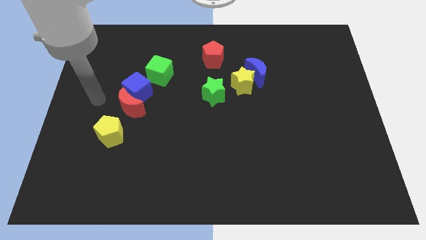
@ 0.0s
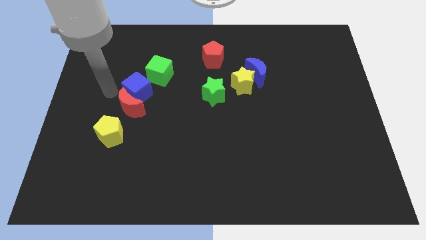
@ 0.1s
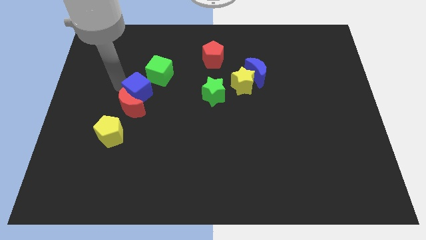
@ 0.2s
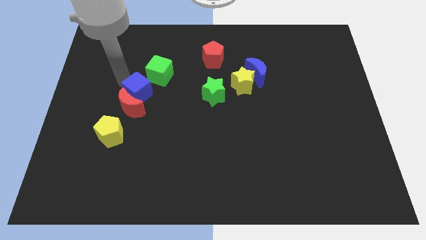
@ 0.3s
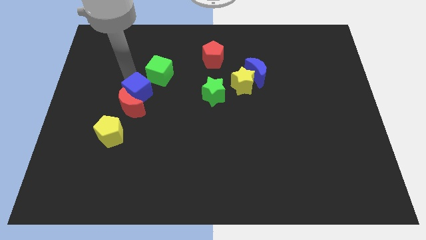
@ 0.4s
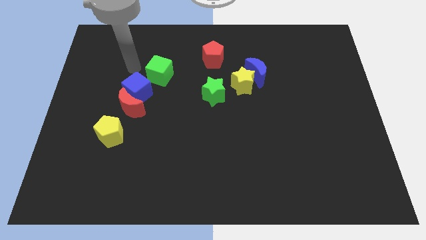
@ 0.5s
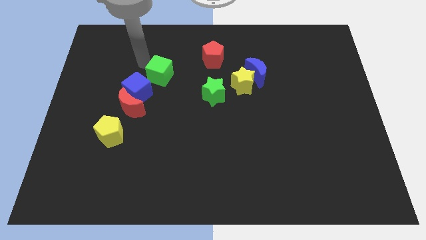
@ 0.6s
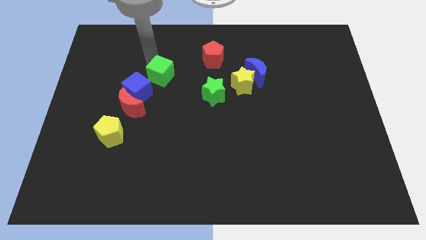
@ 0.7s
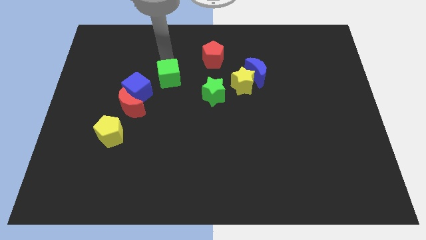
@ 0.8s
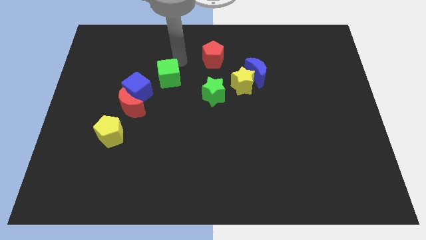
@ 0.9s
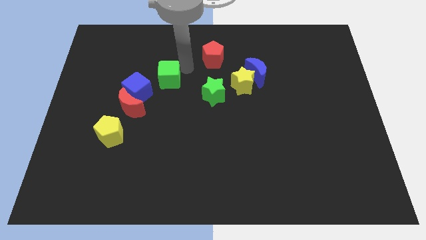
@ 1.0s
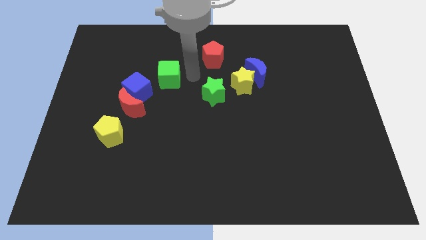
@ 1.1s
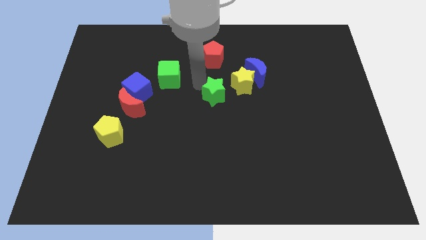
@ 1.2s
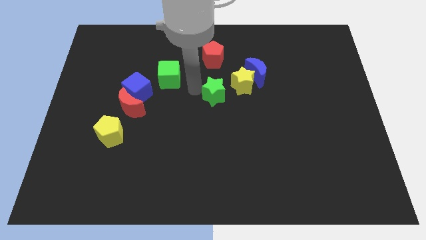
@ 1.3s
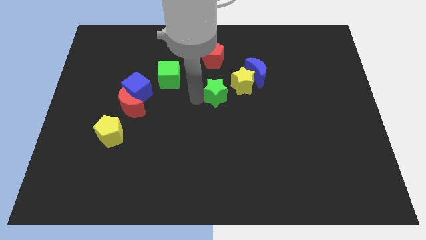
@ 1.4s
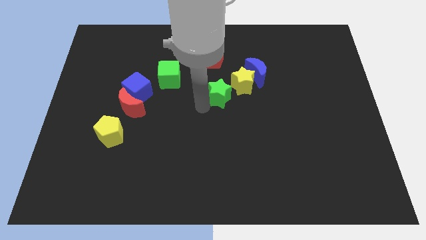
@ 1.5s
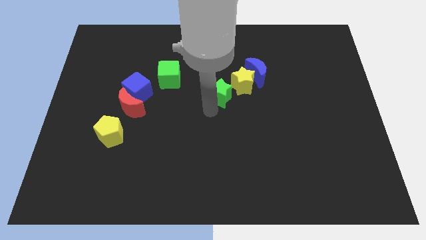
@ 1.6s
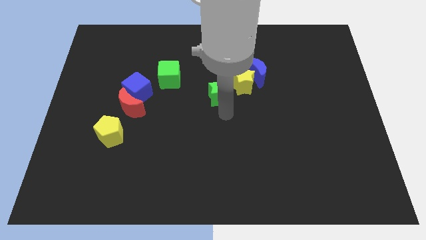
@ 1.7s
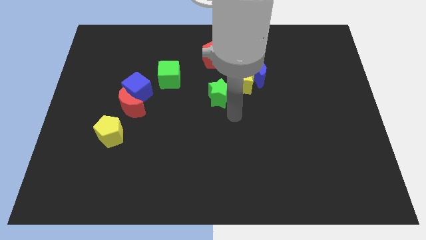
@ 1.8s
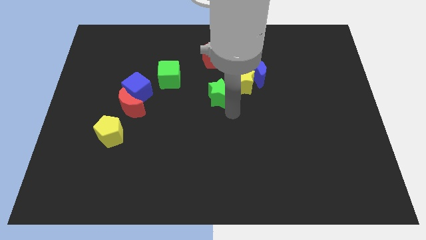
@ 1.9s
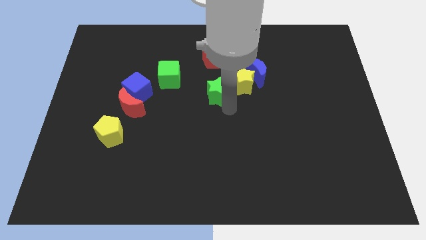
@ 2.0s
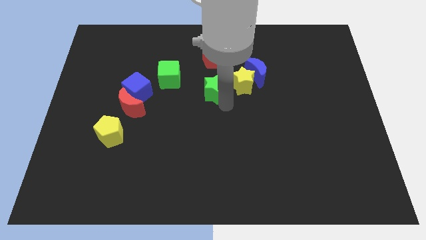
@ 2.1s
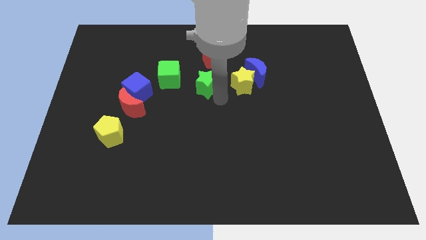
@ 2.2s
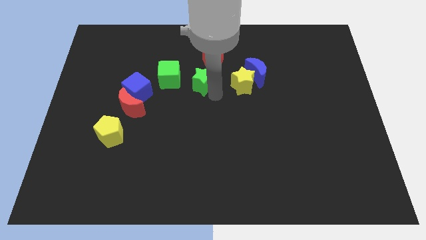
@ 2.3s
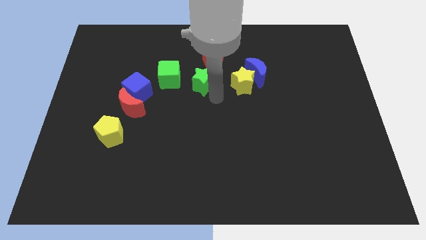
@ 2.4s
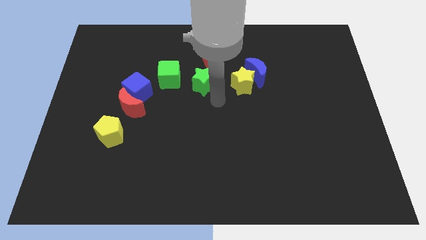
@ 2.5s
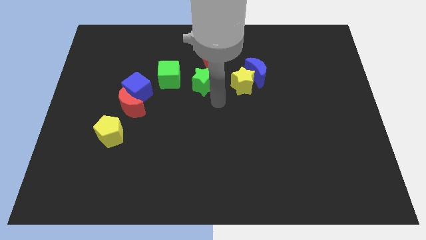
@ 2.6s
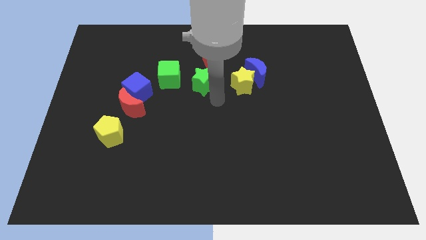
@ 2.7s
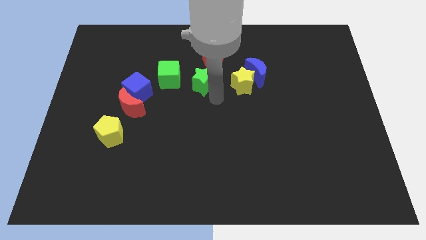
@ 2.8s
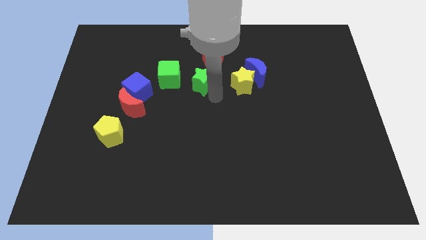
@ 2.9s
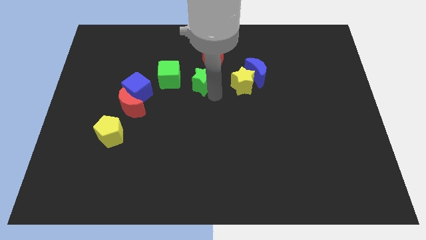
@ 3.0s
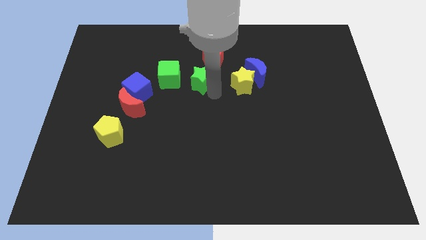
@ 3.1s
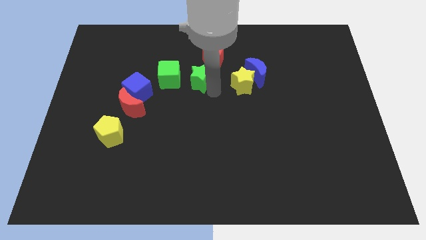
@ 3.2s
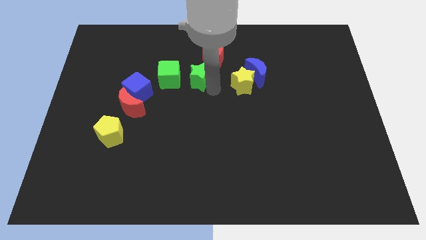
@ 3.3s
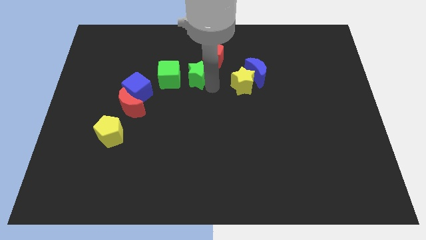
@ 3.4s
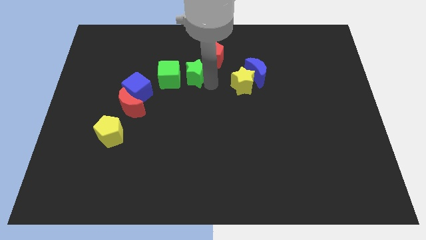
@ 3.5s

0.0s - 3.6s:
slide the green star somewhat diagonally up and left

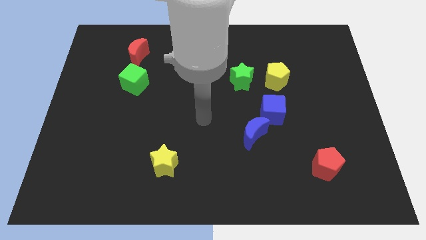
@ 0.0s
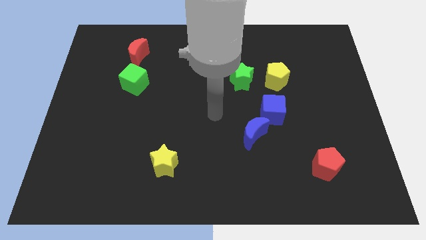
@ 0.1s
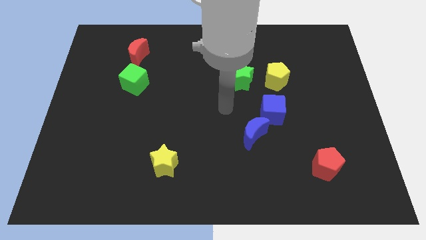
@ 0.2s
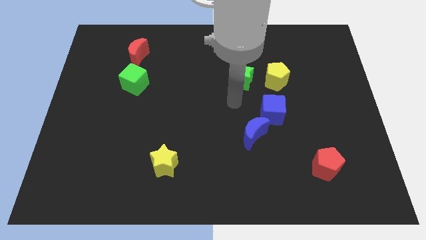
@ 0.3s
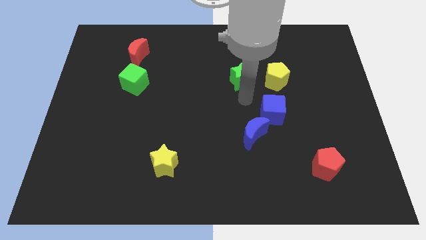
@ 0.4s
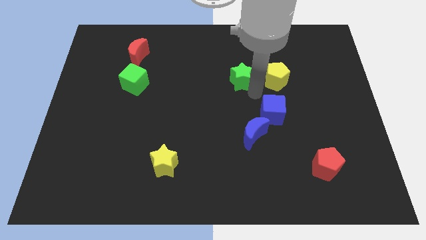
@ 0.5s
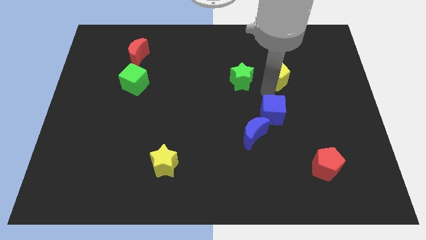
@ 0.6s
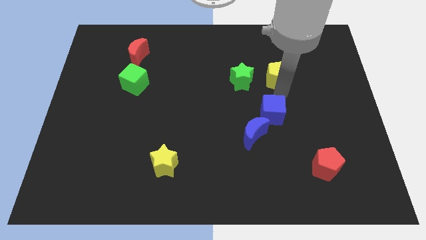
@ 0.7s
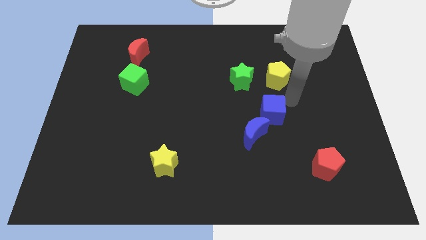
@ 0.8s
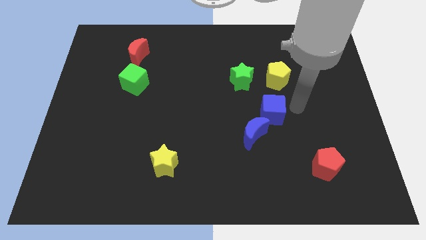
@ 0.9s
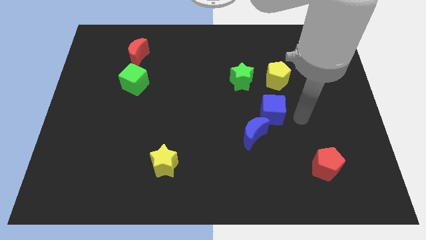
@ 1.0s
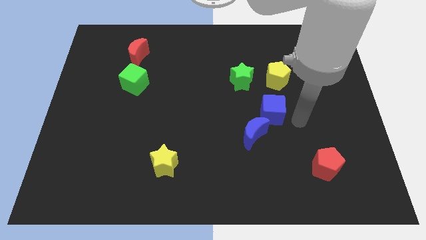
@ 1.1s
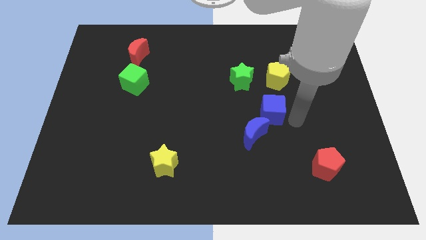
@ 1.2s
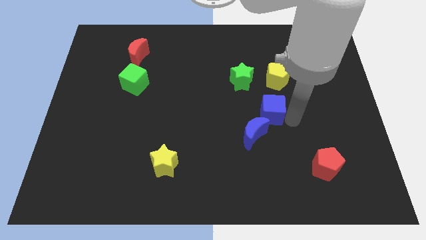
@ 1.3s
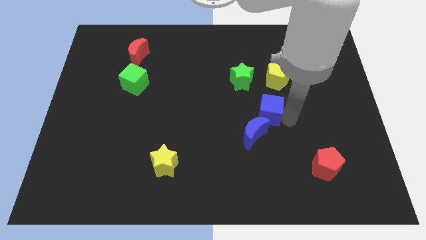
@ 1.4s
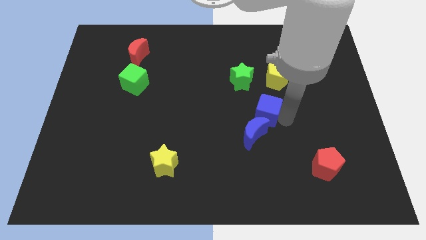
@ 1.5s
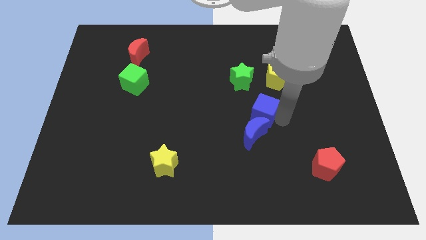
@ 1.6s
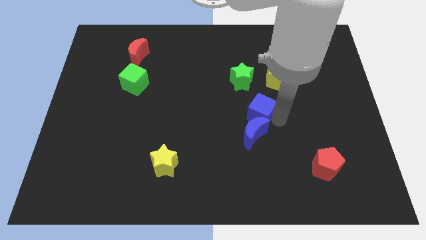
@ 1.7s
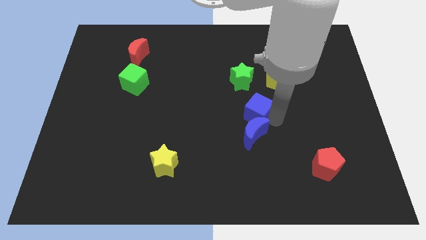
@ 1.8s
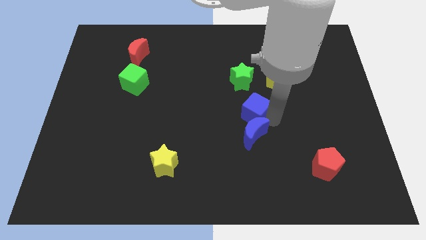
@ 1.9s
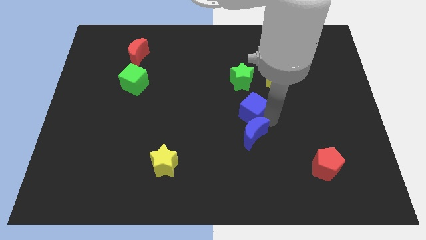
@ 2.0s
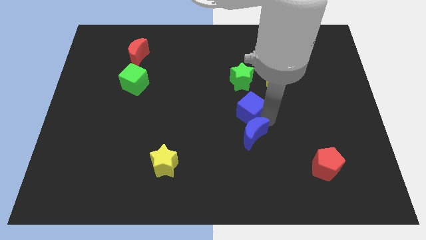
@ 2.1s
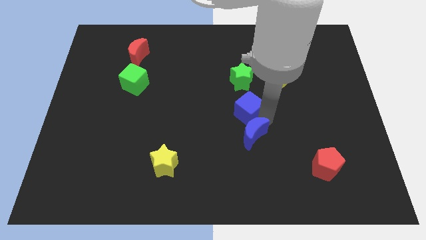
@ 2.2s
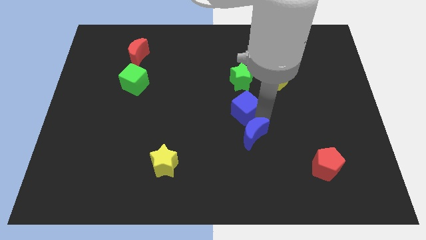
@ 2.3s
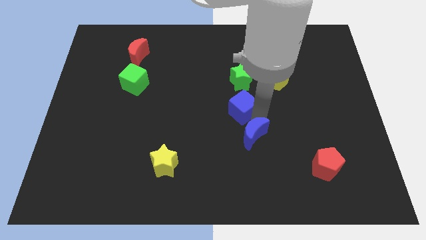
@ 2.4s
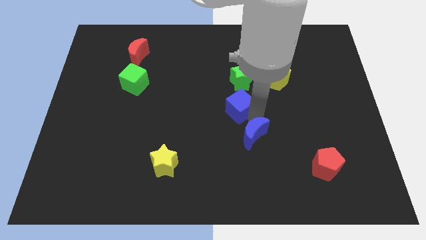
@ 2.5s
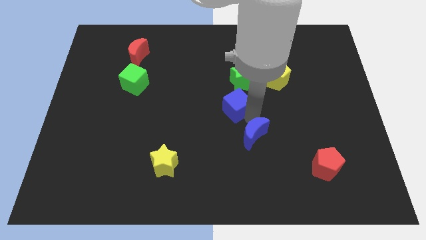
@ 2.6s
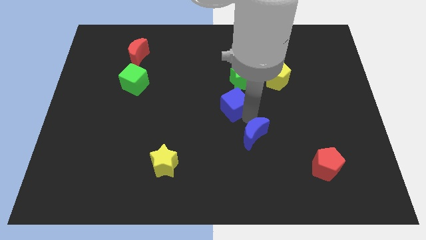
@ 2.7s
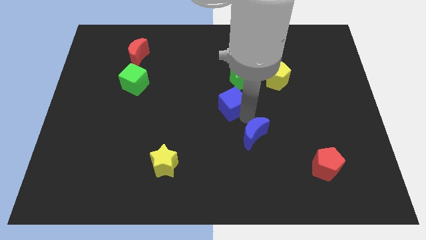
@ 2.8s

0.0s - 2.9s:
push the blue cube somewhat diagonally upwards and to the left

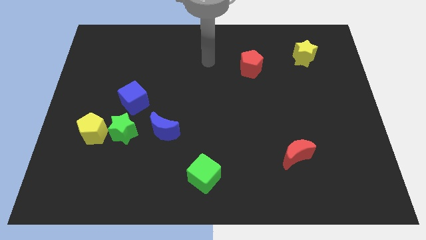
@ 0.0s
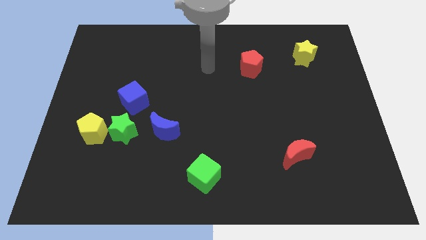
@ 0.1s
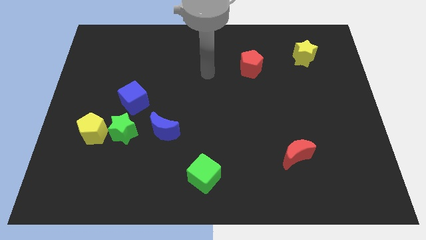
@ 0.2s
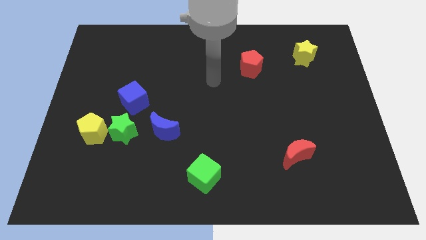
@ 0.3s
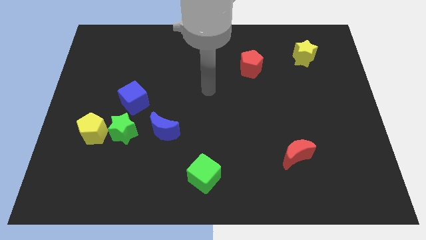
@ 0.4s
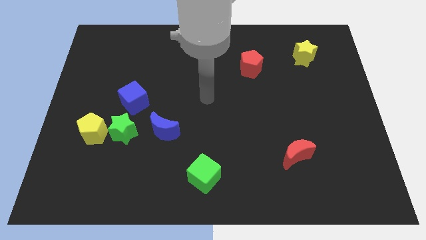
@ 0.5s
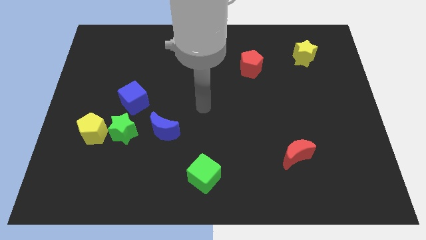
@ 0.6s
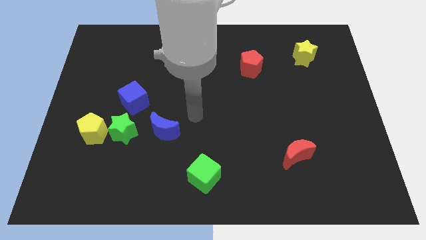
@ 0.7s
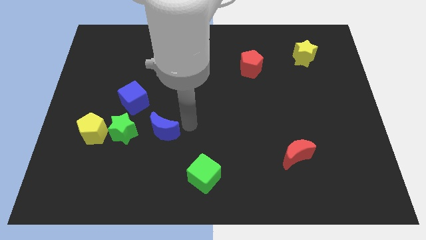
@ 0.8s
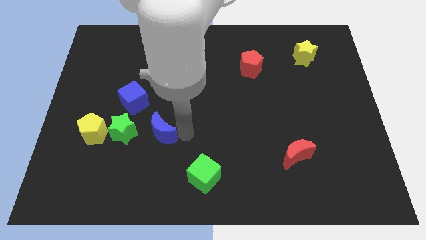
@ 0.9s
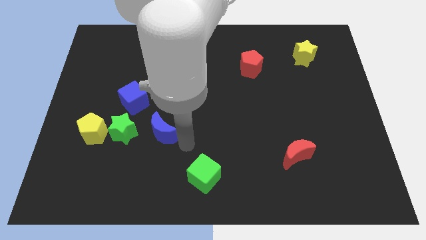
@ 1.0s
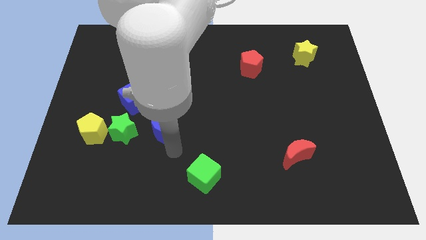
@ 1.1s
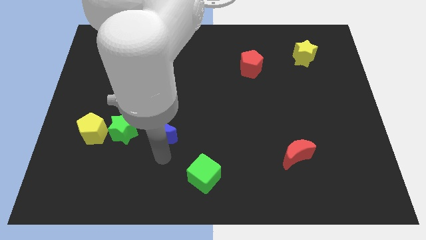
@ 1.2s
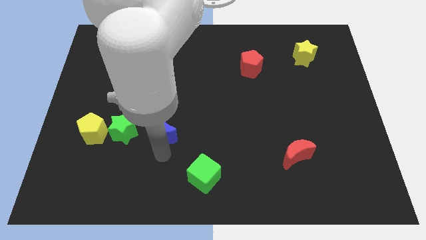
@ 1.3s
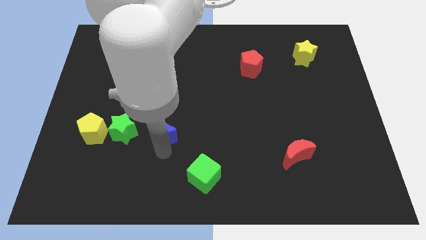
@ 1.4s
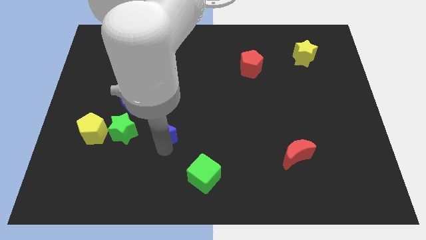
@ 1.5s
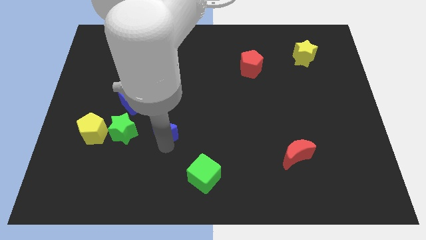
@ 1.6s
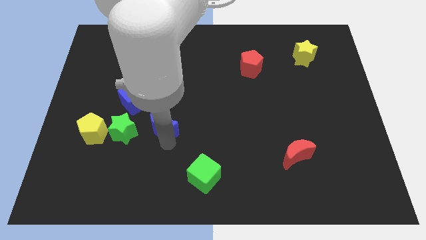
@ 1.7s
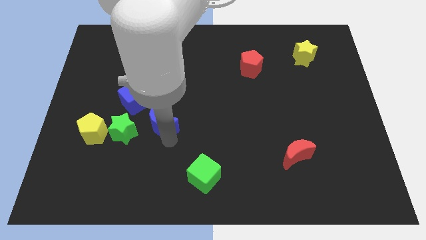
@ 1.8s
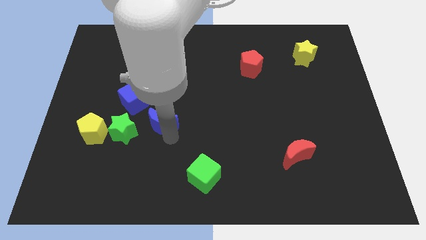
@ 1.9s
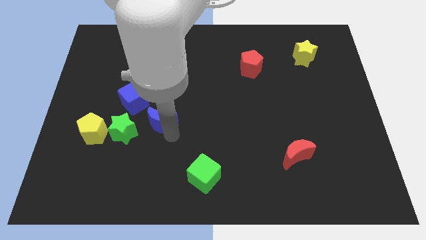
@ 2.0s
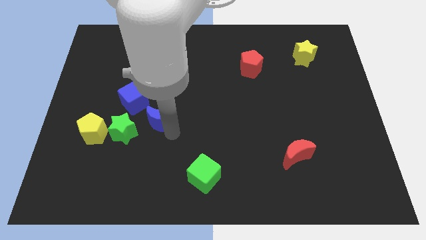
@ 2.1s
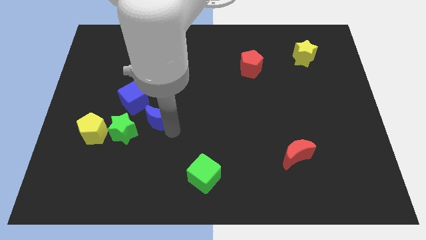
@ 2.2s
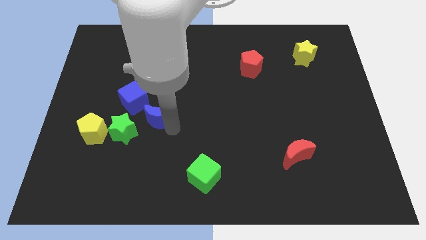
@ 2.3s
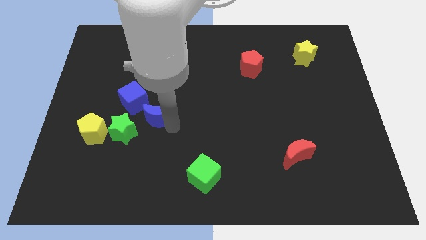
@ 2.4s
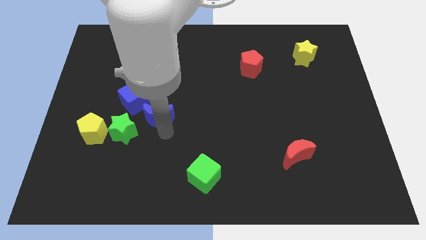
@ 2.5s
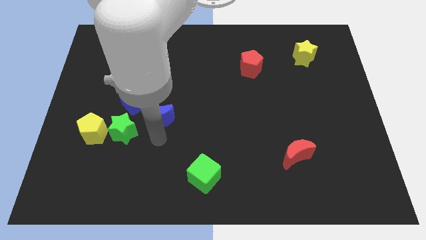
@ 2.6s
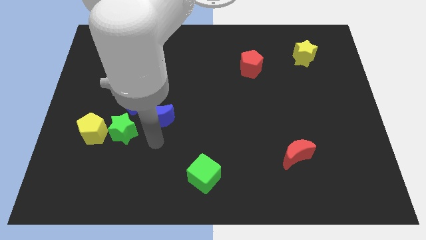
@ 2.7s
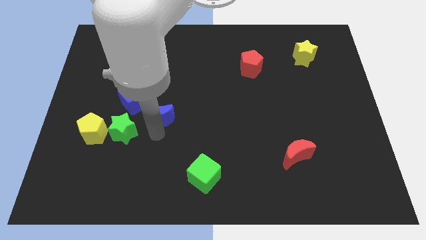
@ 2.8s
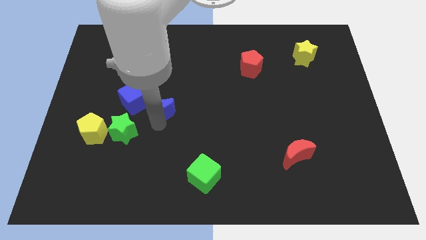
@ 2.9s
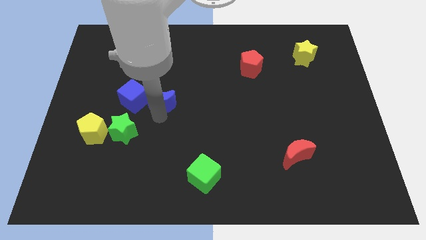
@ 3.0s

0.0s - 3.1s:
slide the blue moon up a little
